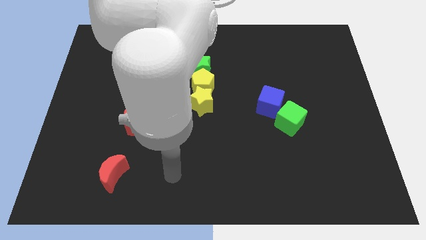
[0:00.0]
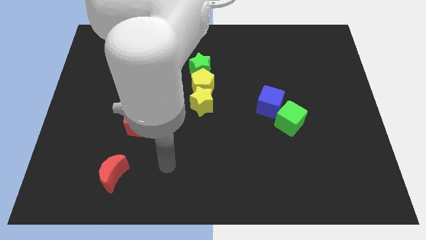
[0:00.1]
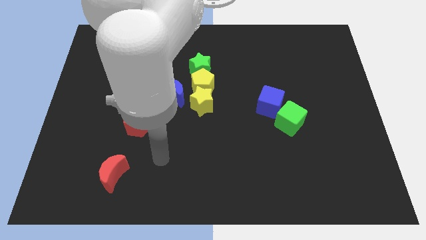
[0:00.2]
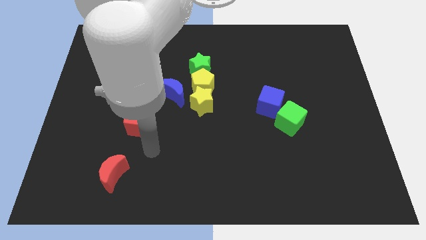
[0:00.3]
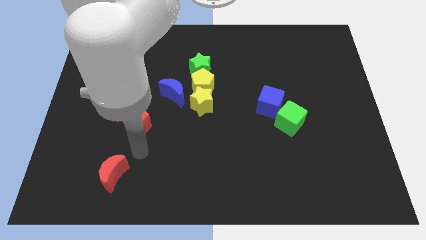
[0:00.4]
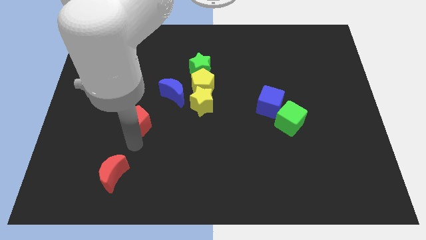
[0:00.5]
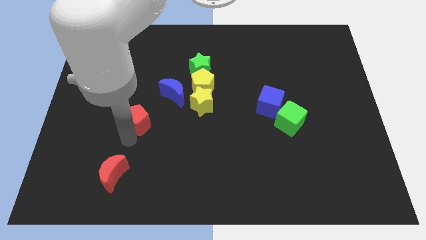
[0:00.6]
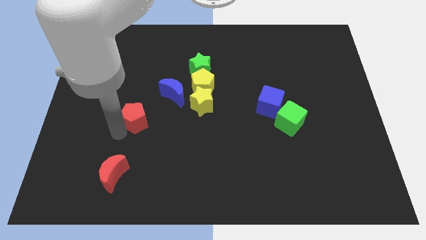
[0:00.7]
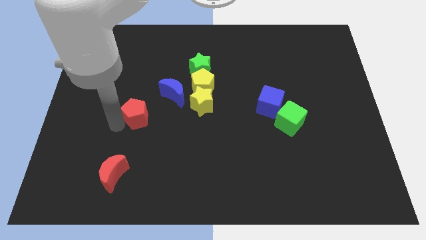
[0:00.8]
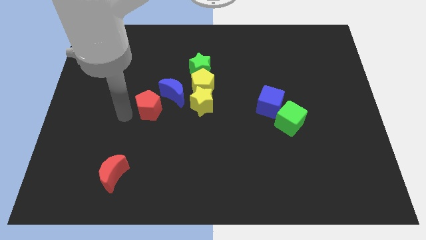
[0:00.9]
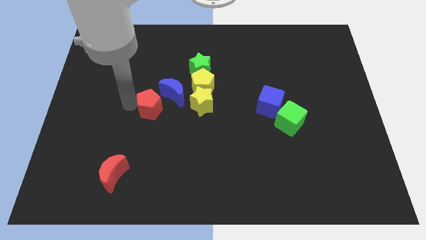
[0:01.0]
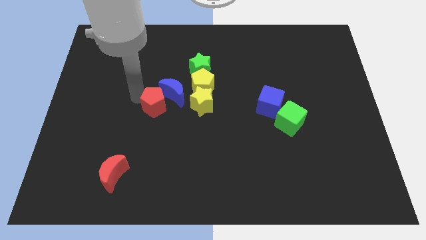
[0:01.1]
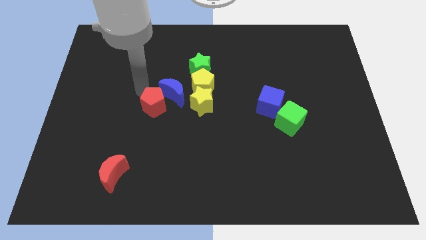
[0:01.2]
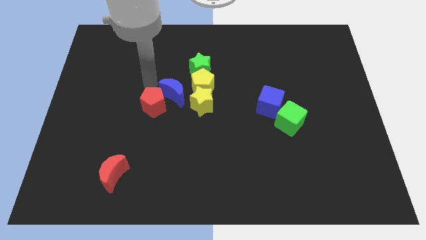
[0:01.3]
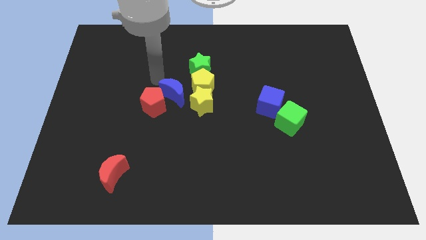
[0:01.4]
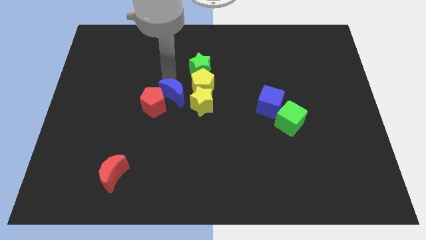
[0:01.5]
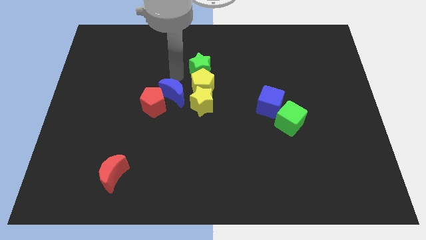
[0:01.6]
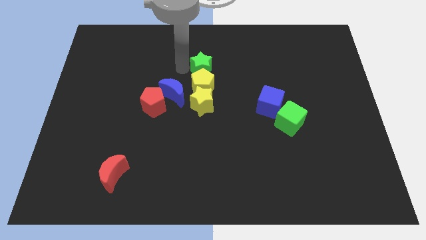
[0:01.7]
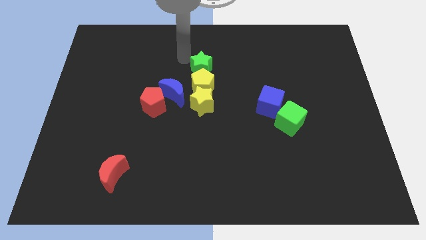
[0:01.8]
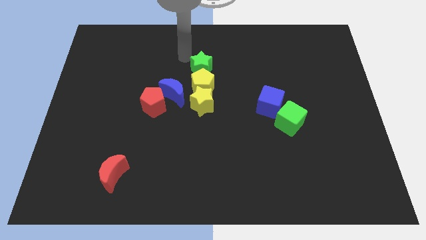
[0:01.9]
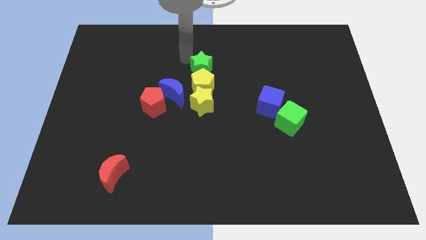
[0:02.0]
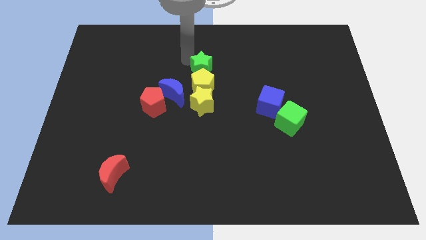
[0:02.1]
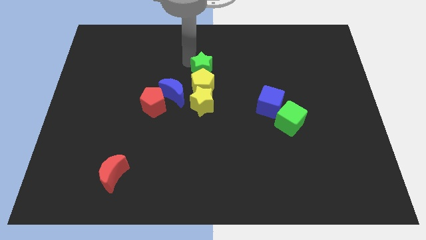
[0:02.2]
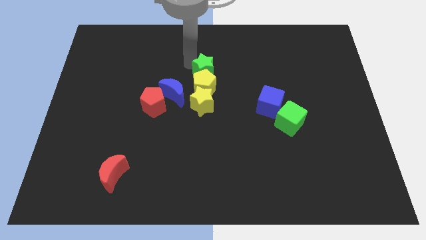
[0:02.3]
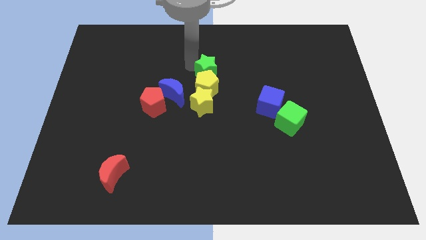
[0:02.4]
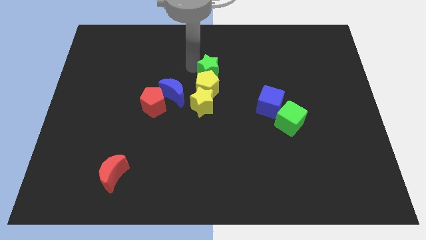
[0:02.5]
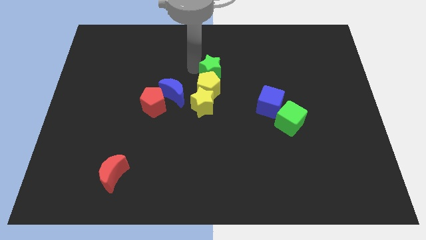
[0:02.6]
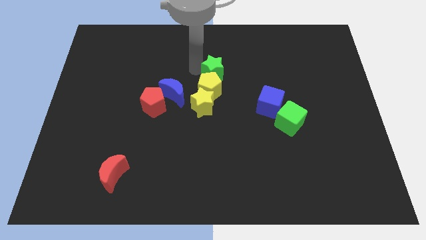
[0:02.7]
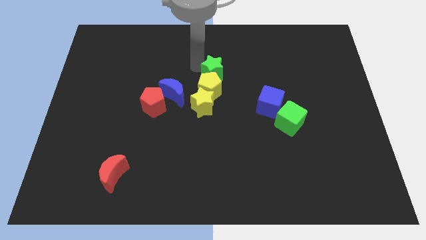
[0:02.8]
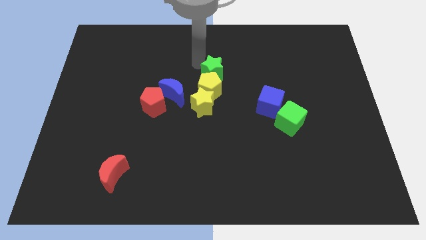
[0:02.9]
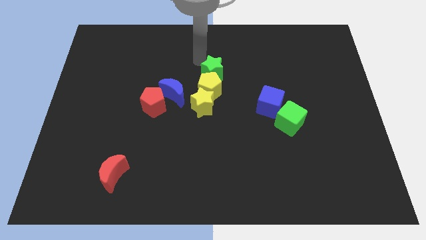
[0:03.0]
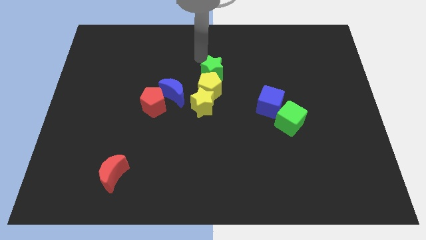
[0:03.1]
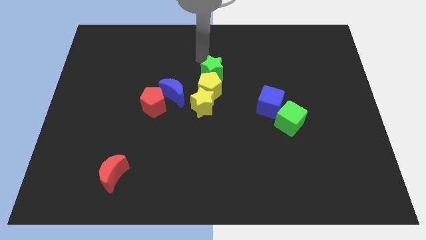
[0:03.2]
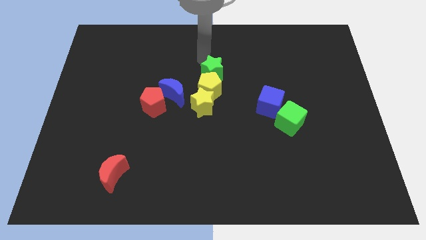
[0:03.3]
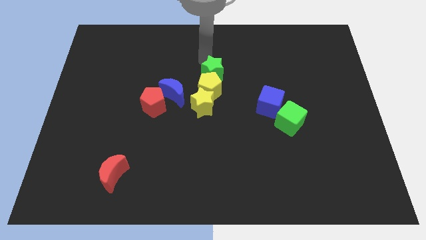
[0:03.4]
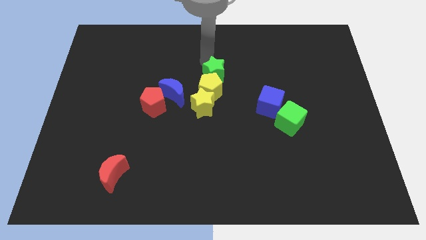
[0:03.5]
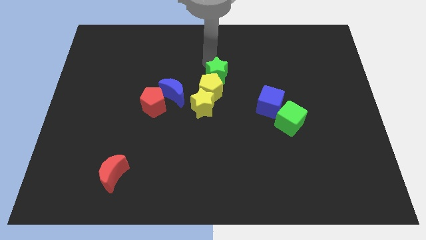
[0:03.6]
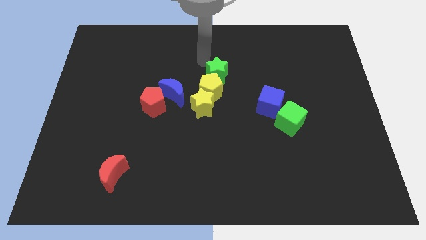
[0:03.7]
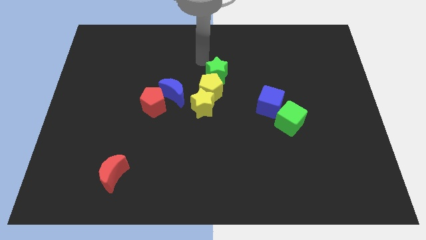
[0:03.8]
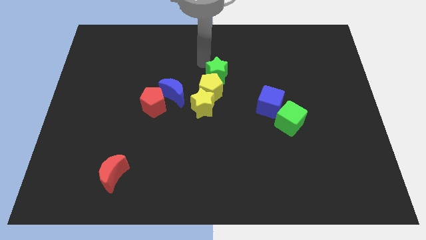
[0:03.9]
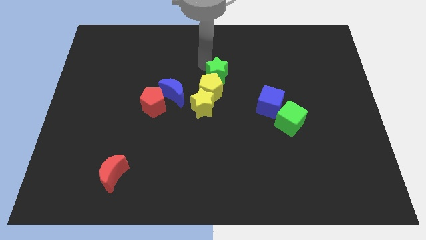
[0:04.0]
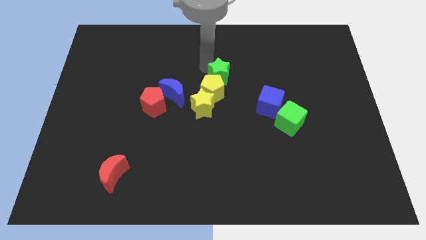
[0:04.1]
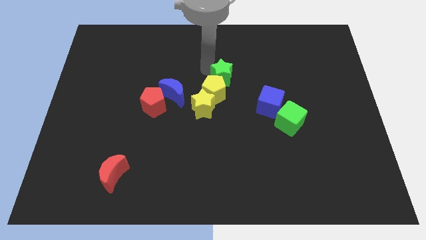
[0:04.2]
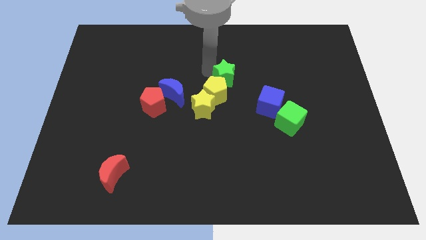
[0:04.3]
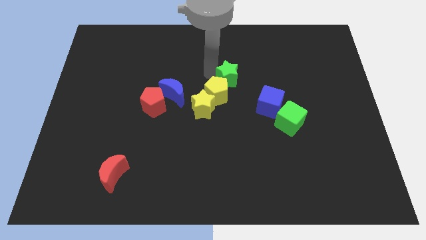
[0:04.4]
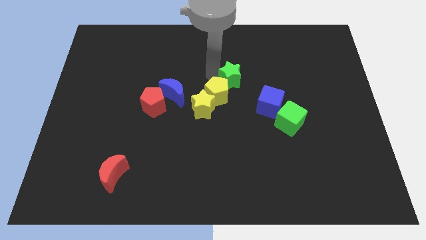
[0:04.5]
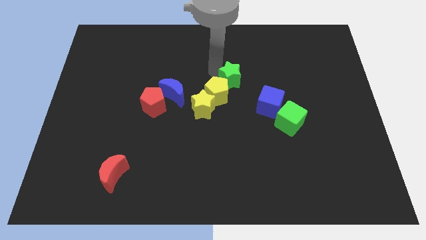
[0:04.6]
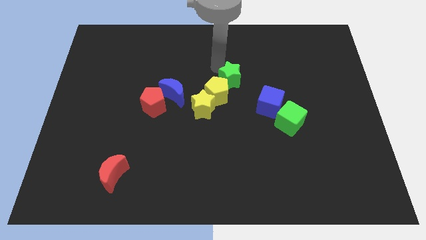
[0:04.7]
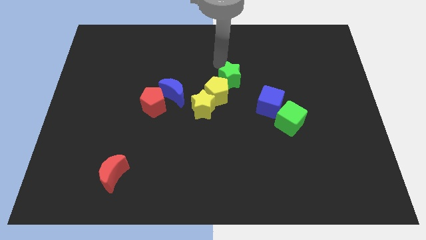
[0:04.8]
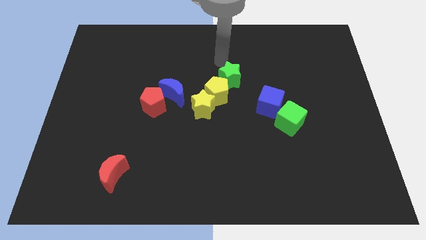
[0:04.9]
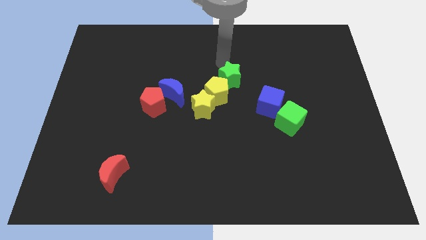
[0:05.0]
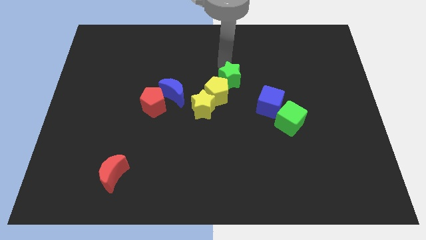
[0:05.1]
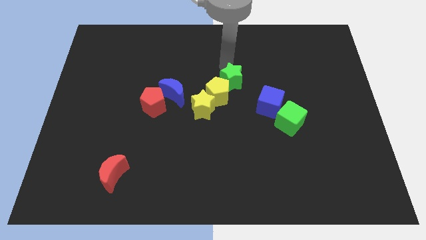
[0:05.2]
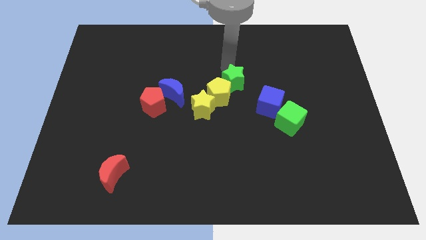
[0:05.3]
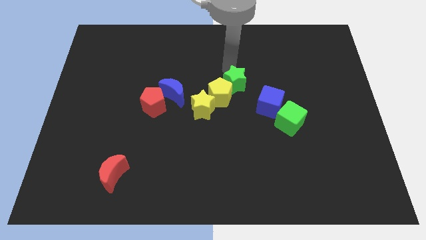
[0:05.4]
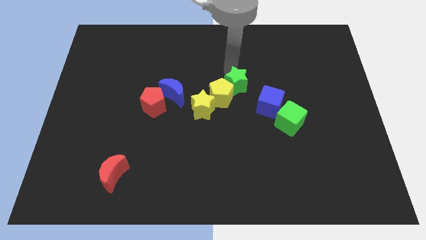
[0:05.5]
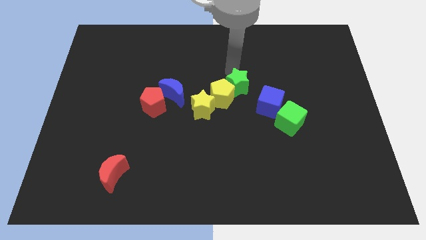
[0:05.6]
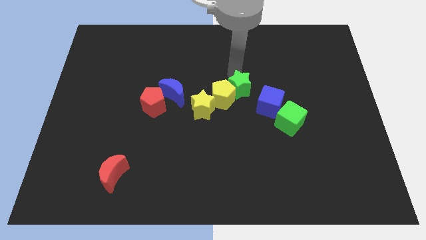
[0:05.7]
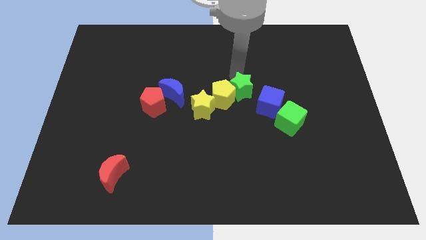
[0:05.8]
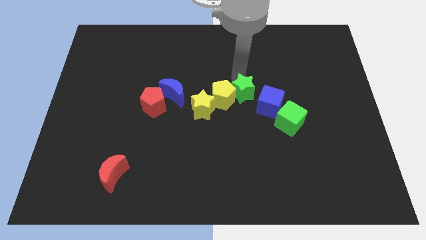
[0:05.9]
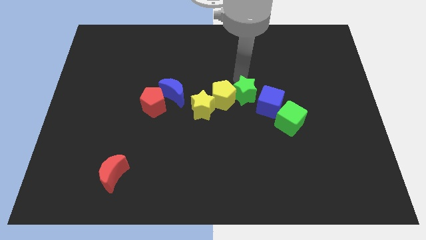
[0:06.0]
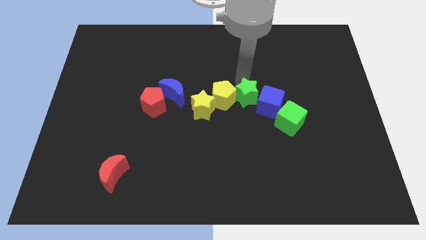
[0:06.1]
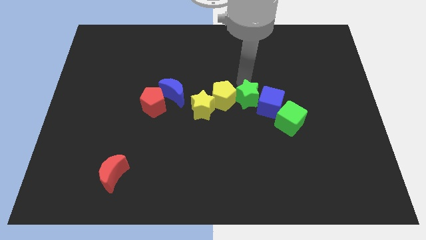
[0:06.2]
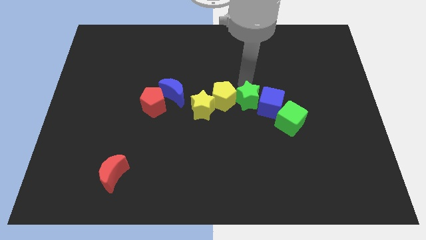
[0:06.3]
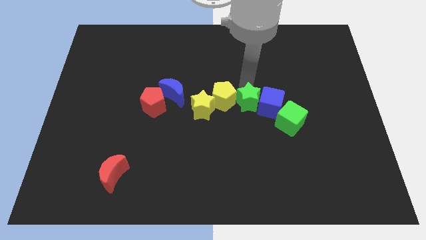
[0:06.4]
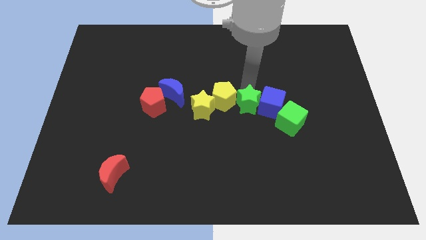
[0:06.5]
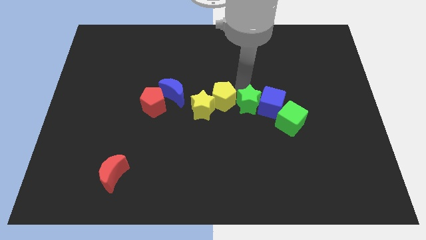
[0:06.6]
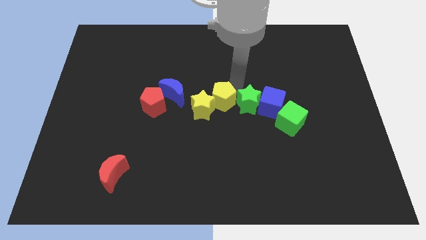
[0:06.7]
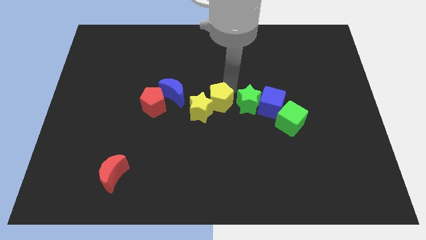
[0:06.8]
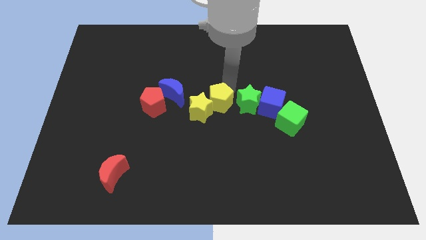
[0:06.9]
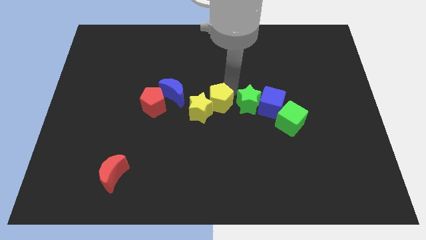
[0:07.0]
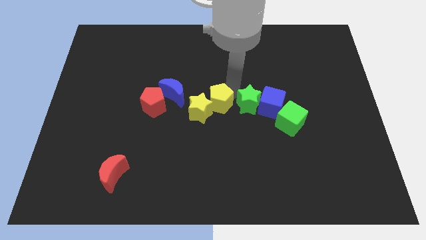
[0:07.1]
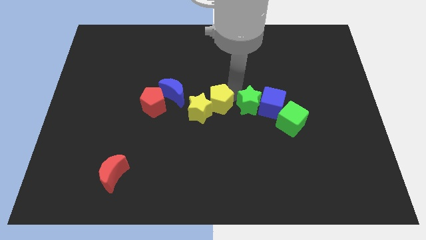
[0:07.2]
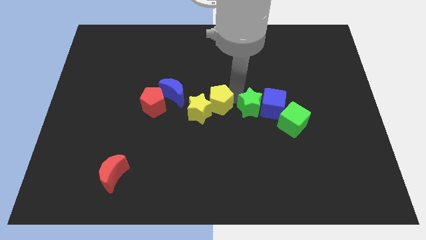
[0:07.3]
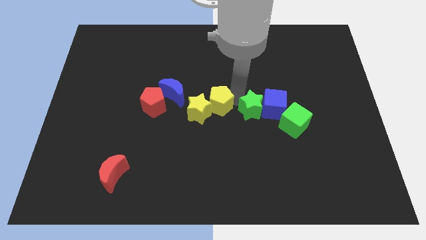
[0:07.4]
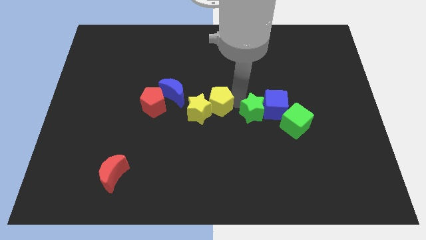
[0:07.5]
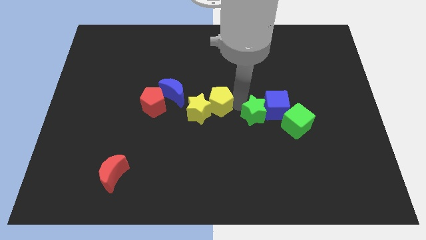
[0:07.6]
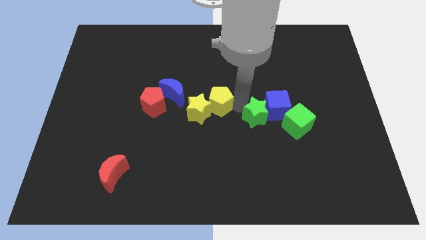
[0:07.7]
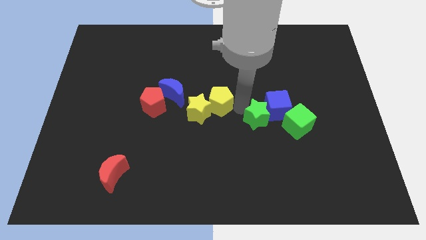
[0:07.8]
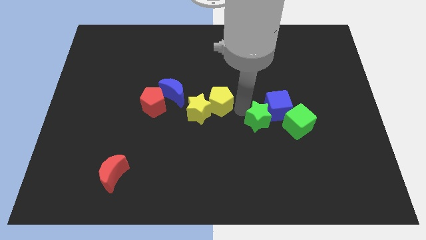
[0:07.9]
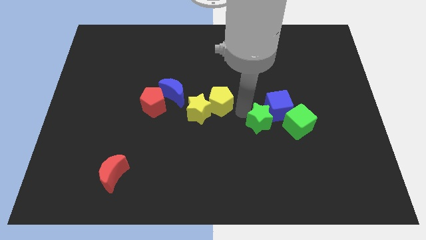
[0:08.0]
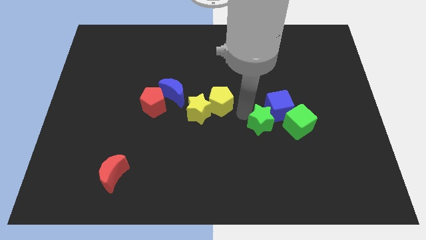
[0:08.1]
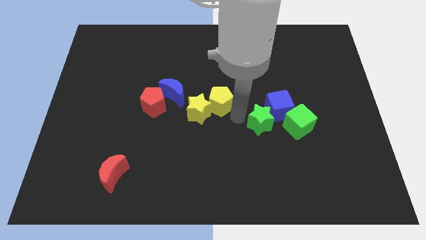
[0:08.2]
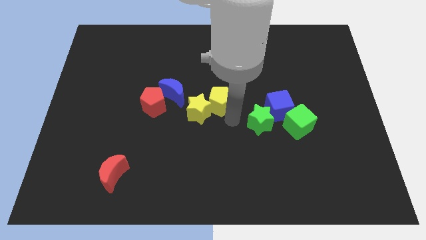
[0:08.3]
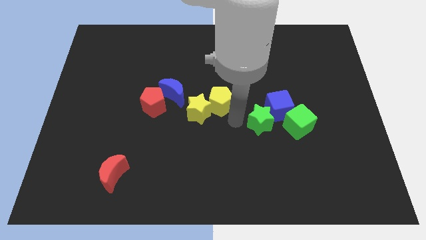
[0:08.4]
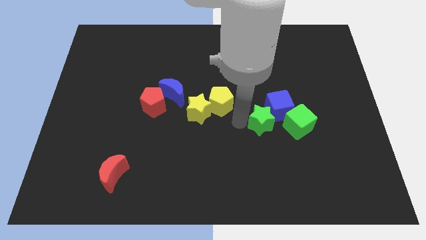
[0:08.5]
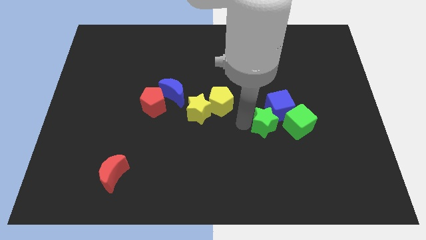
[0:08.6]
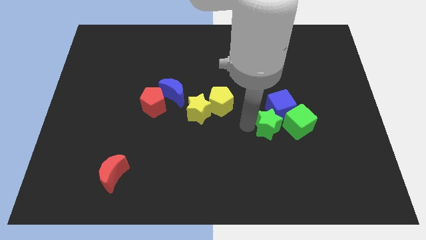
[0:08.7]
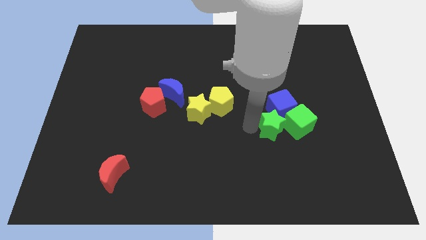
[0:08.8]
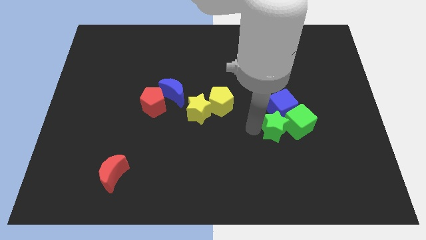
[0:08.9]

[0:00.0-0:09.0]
slide the green star close to the green cube
